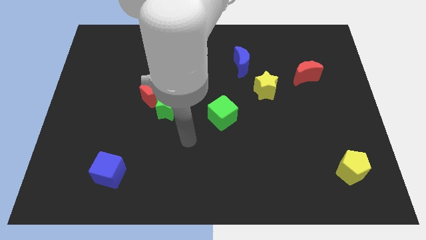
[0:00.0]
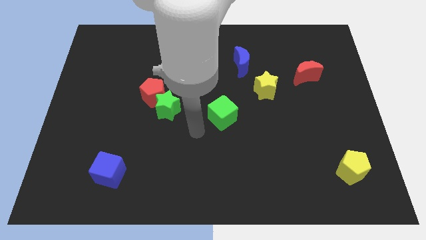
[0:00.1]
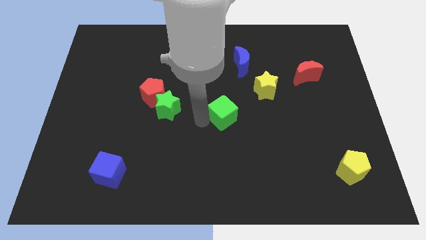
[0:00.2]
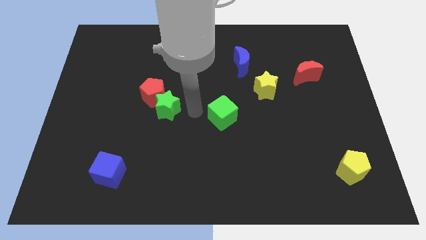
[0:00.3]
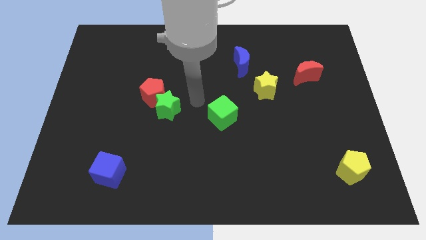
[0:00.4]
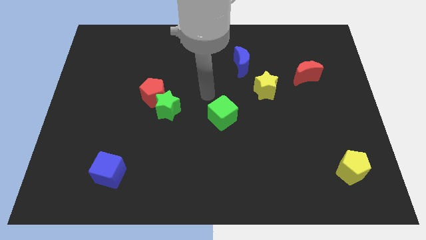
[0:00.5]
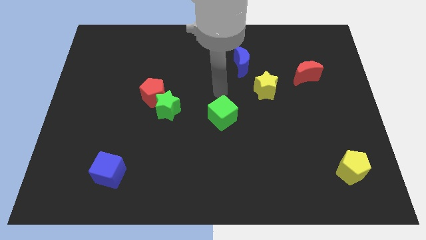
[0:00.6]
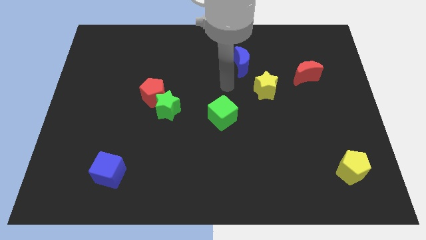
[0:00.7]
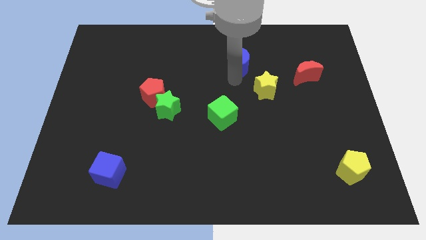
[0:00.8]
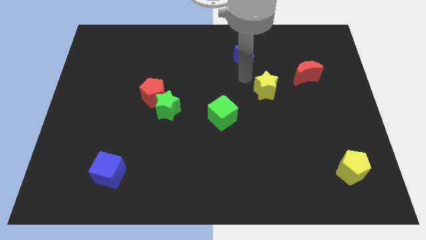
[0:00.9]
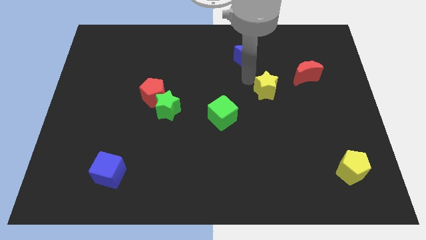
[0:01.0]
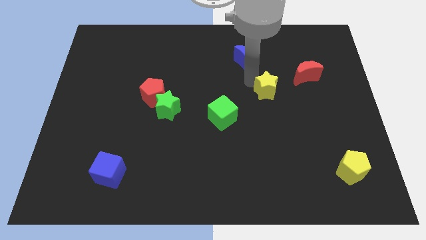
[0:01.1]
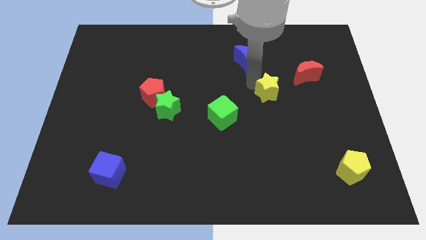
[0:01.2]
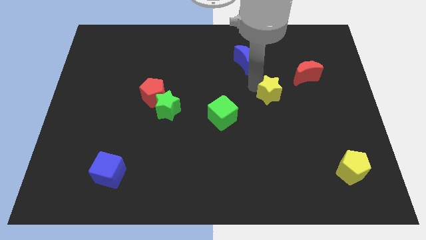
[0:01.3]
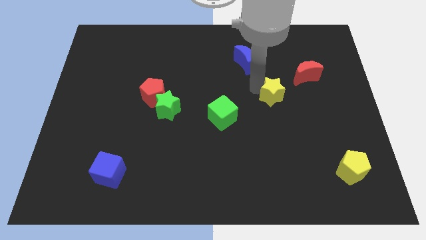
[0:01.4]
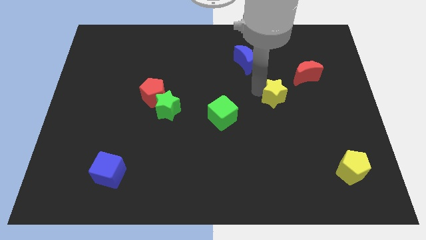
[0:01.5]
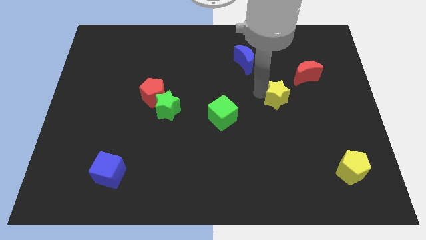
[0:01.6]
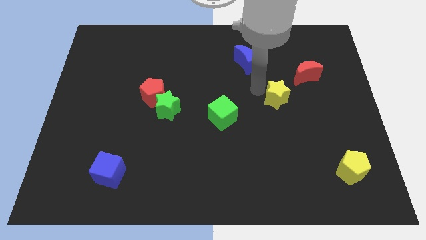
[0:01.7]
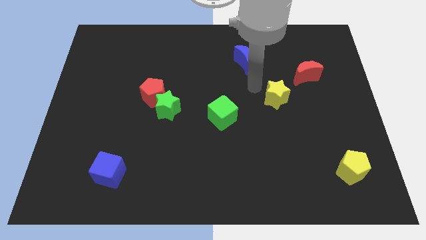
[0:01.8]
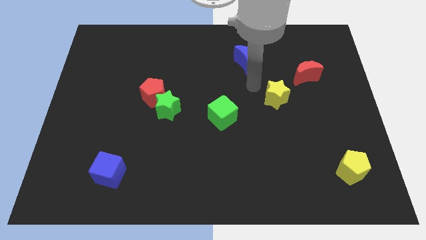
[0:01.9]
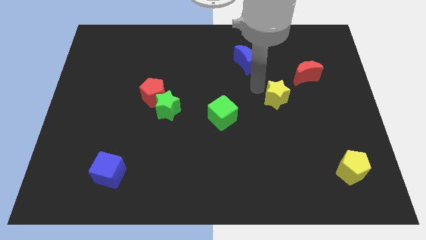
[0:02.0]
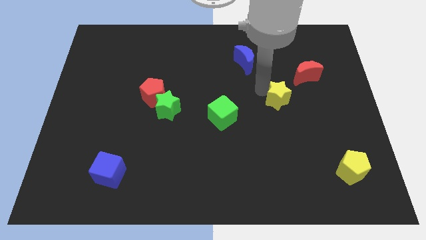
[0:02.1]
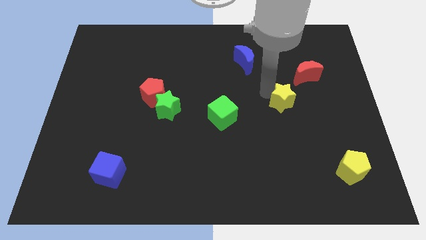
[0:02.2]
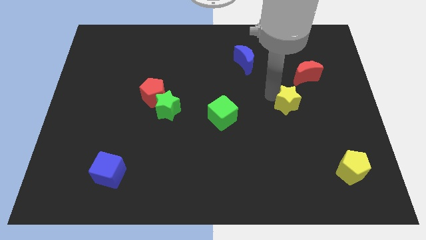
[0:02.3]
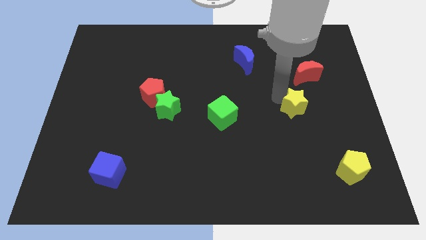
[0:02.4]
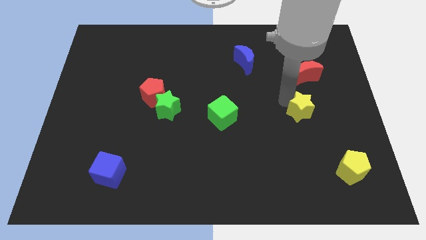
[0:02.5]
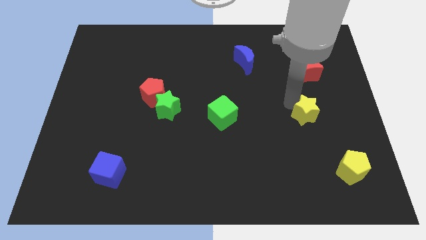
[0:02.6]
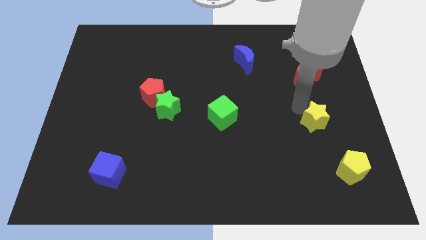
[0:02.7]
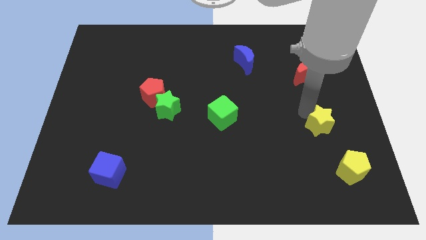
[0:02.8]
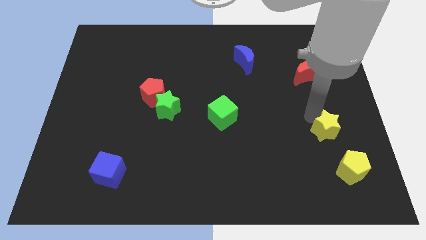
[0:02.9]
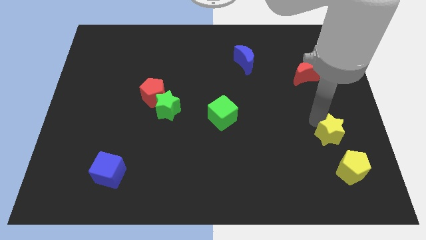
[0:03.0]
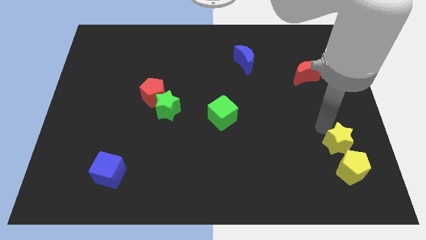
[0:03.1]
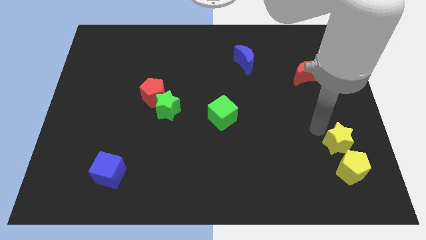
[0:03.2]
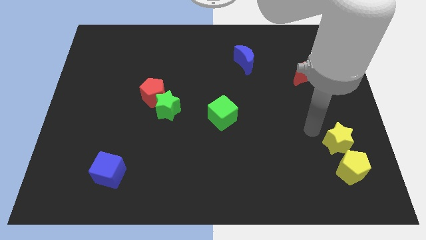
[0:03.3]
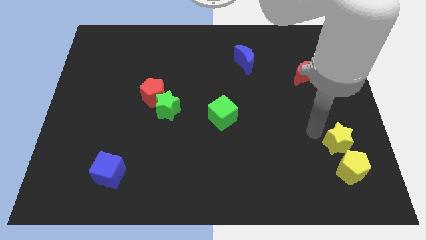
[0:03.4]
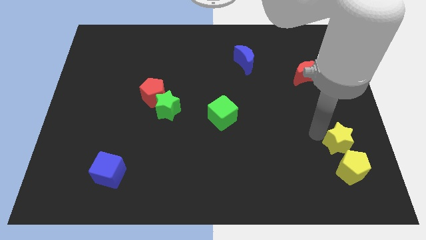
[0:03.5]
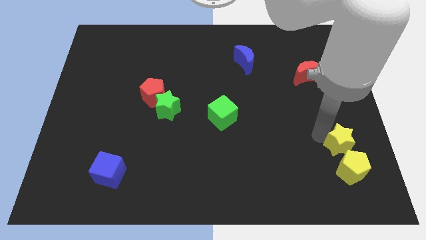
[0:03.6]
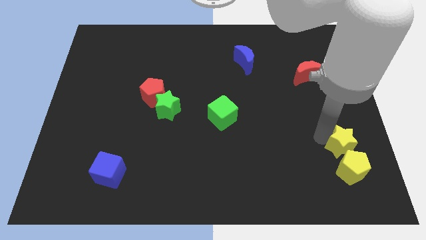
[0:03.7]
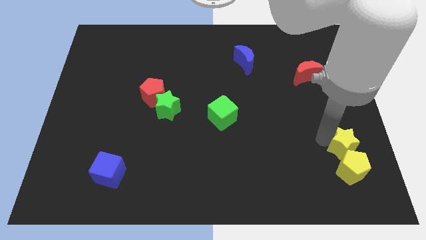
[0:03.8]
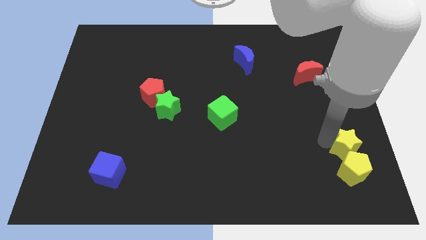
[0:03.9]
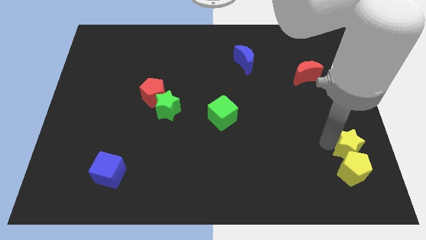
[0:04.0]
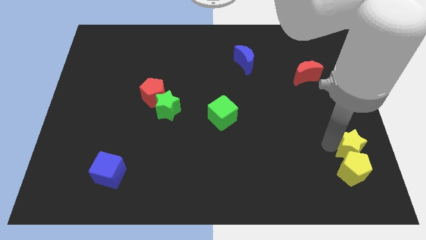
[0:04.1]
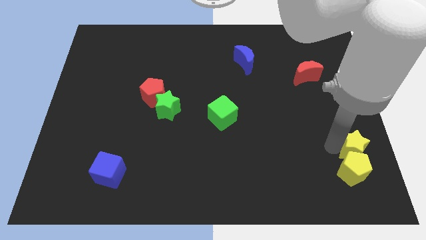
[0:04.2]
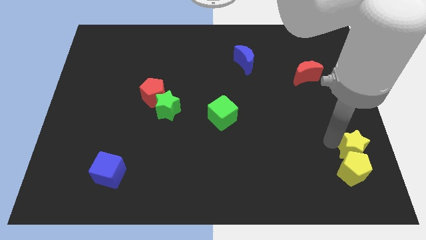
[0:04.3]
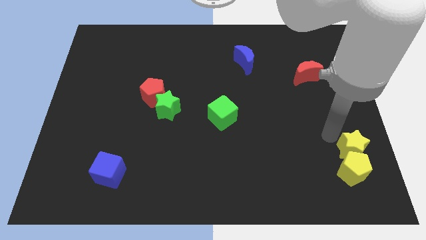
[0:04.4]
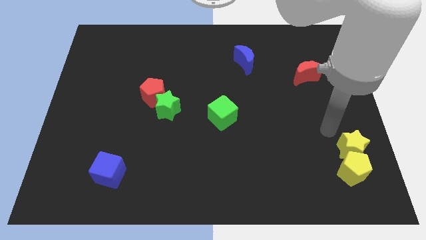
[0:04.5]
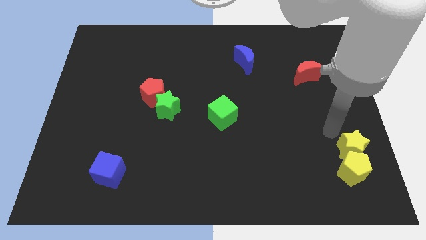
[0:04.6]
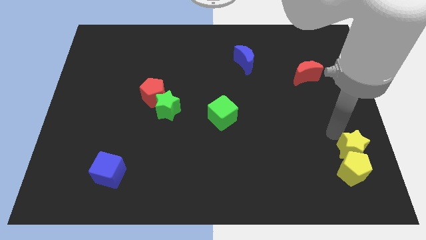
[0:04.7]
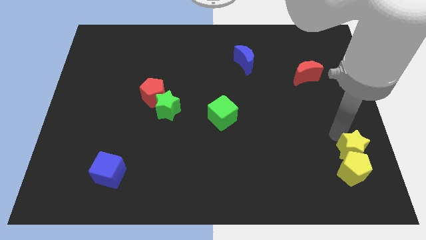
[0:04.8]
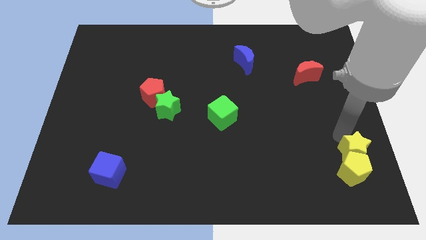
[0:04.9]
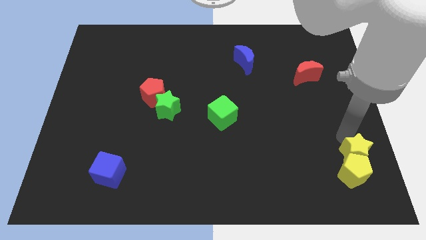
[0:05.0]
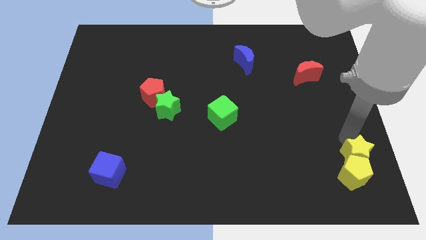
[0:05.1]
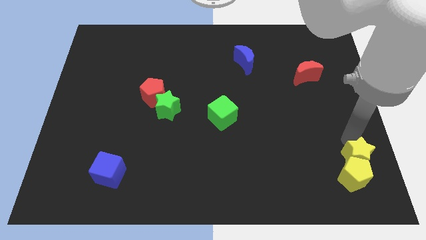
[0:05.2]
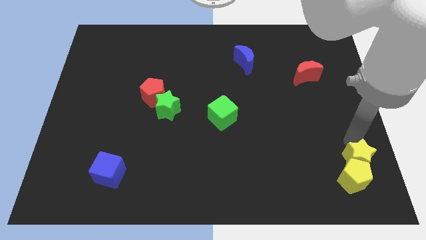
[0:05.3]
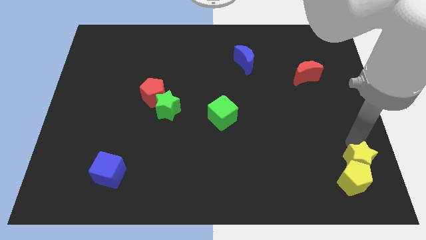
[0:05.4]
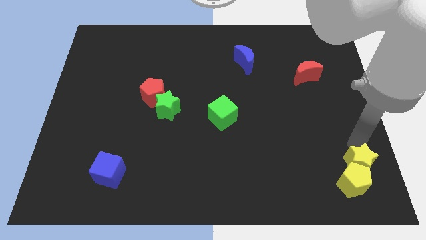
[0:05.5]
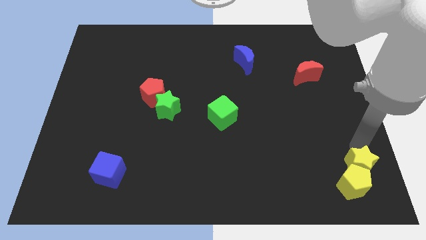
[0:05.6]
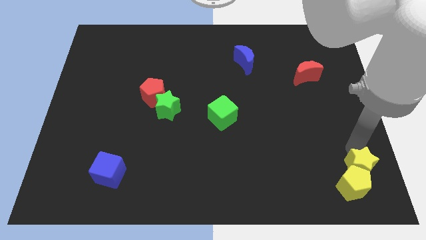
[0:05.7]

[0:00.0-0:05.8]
move the yellow star to the lower right corner

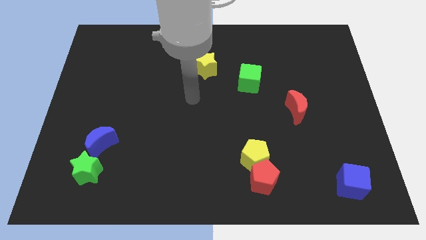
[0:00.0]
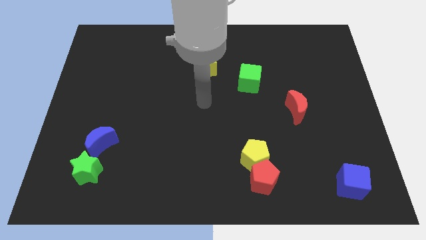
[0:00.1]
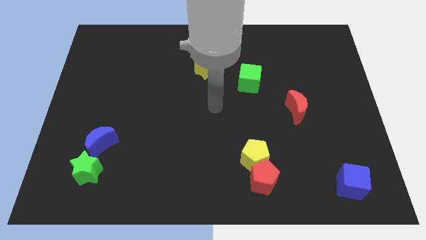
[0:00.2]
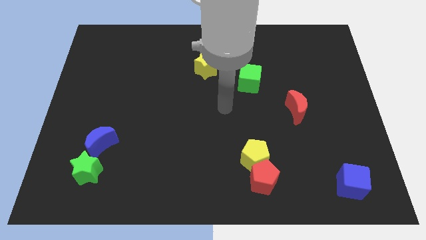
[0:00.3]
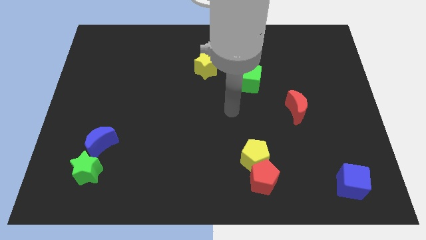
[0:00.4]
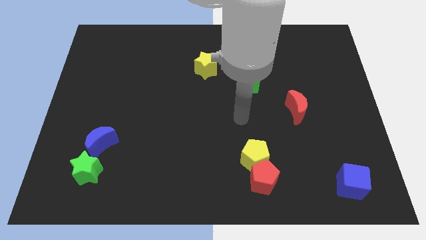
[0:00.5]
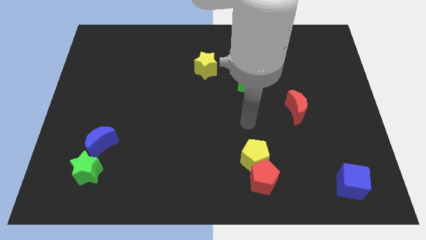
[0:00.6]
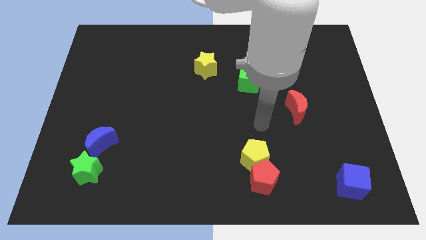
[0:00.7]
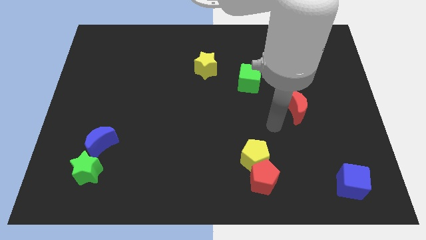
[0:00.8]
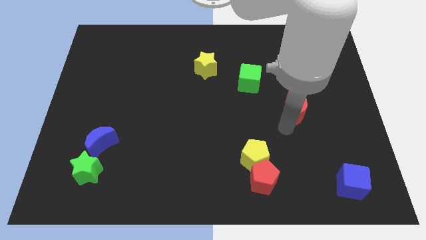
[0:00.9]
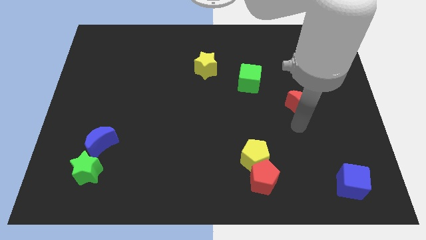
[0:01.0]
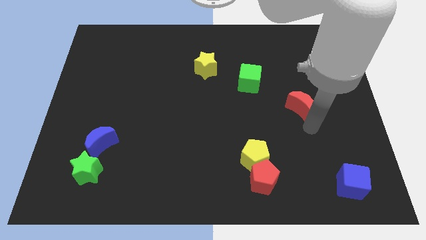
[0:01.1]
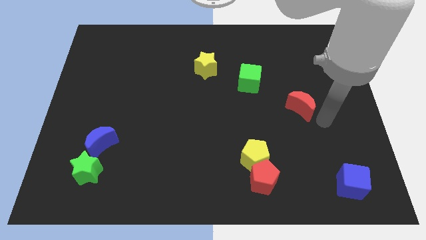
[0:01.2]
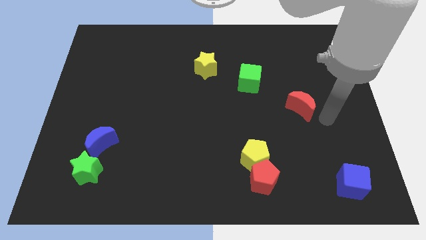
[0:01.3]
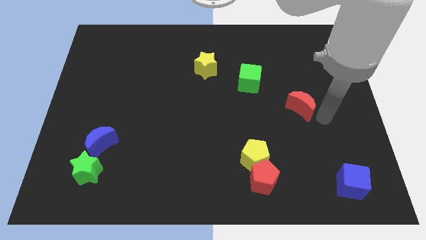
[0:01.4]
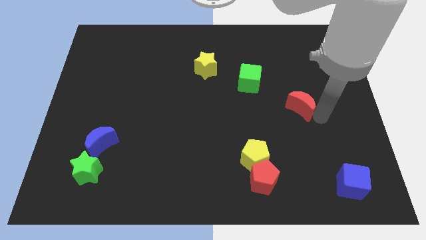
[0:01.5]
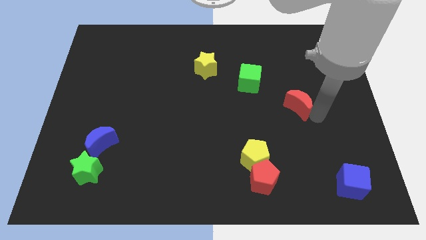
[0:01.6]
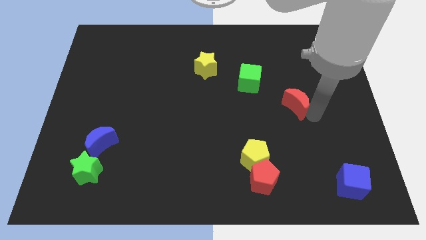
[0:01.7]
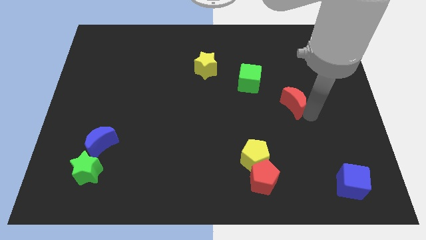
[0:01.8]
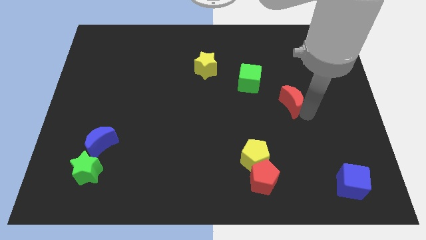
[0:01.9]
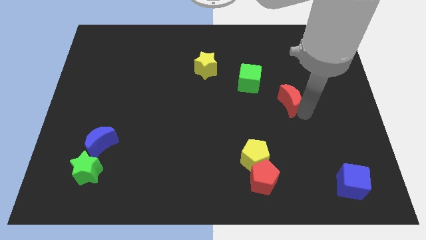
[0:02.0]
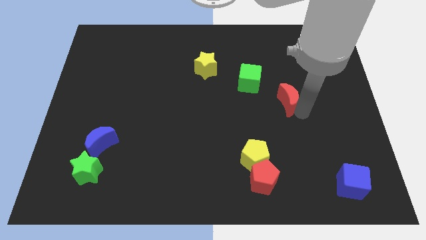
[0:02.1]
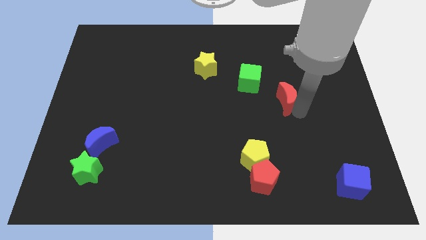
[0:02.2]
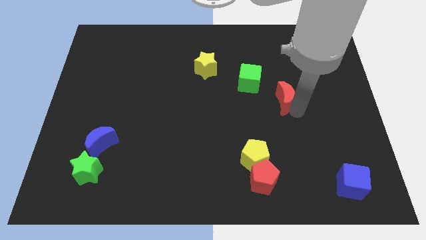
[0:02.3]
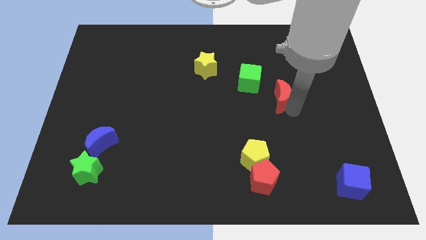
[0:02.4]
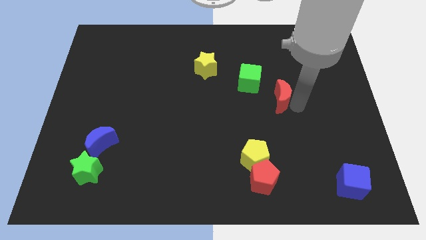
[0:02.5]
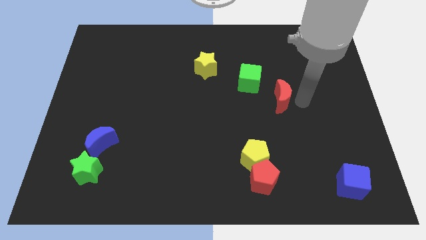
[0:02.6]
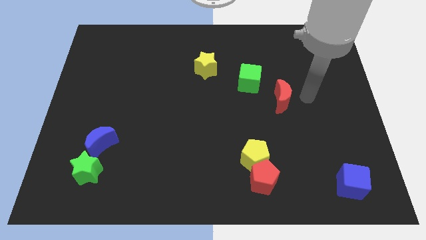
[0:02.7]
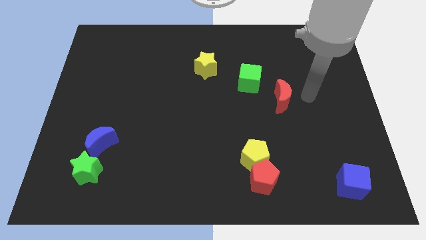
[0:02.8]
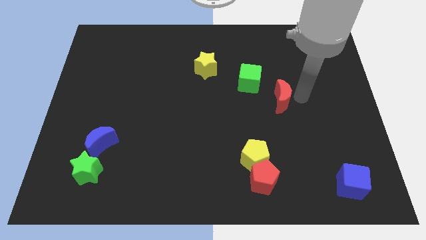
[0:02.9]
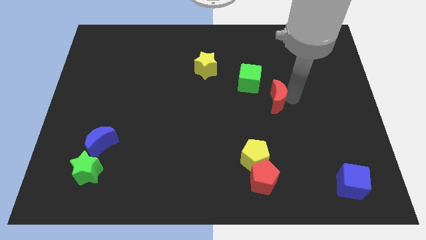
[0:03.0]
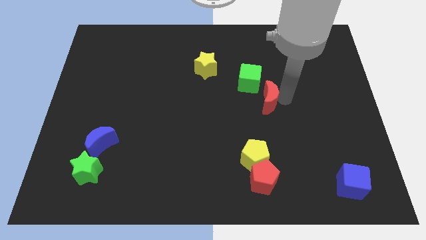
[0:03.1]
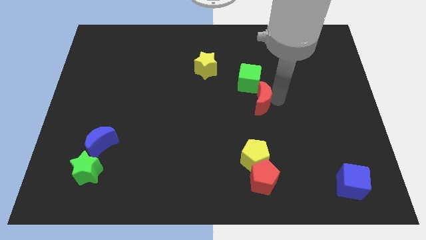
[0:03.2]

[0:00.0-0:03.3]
push the red moon to the center of the board
